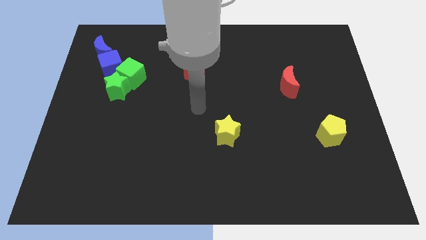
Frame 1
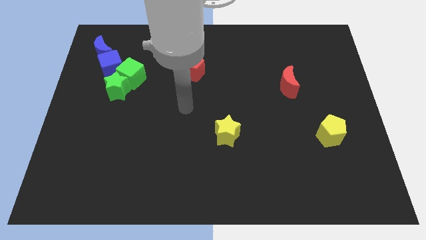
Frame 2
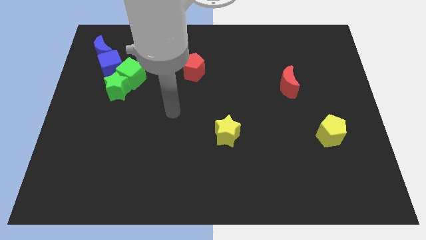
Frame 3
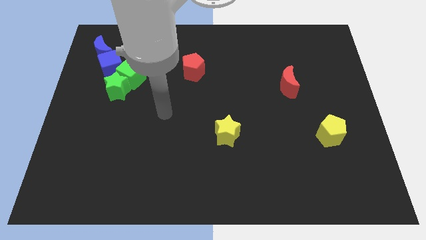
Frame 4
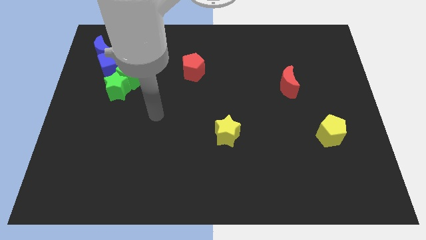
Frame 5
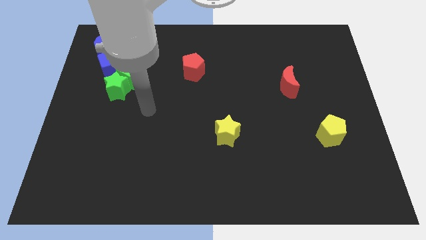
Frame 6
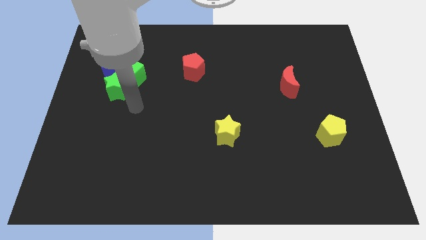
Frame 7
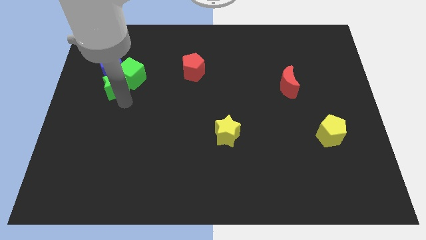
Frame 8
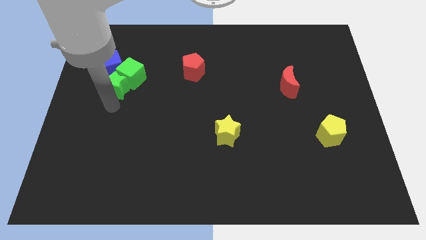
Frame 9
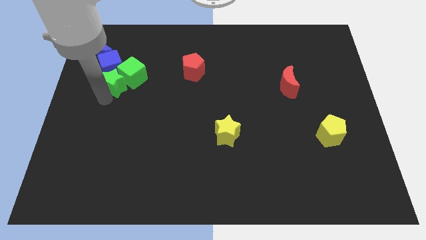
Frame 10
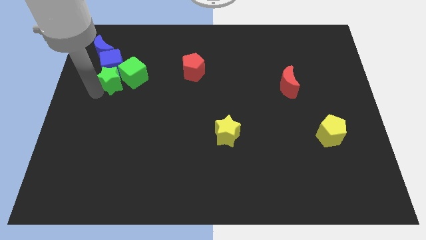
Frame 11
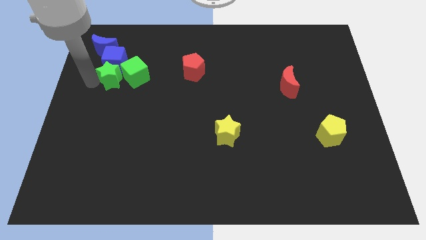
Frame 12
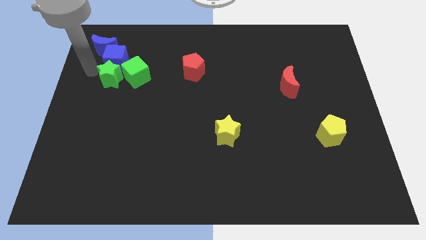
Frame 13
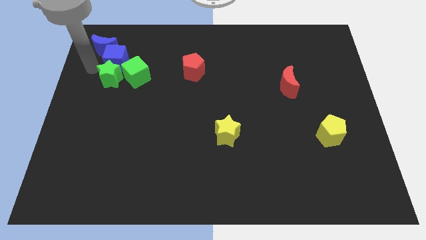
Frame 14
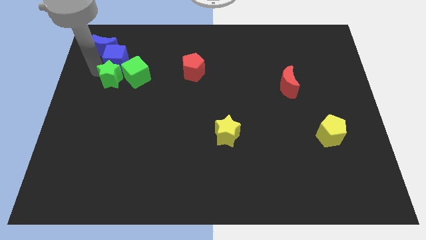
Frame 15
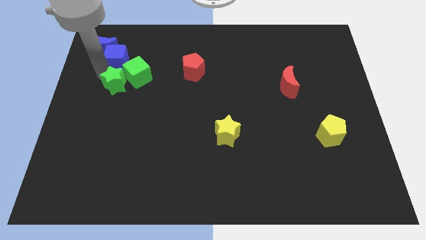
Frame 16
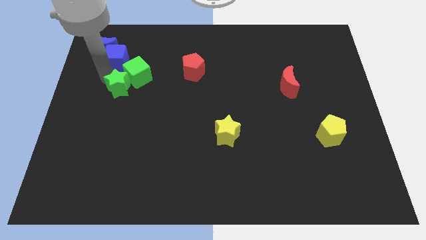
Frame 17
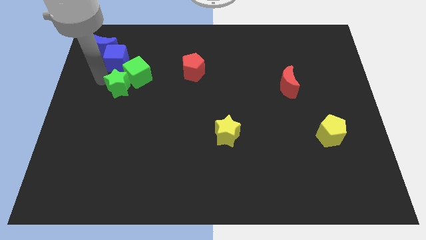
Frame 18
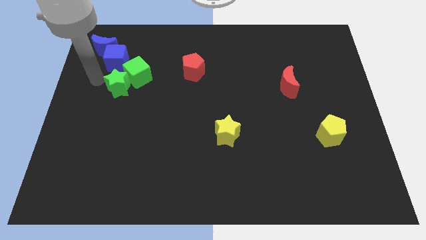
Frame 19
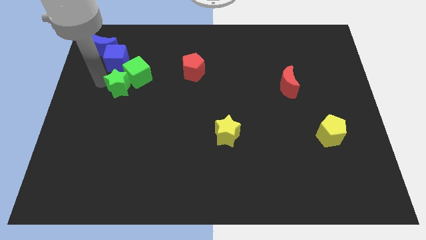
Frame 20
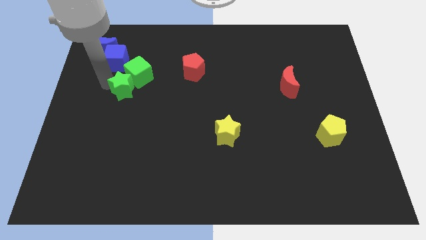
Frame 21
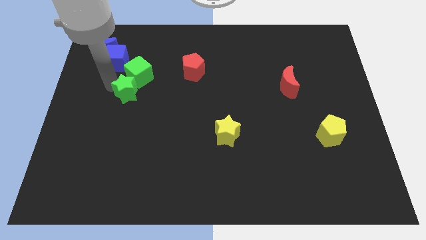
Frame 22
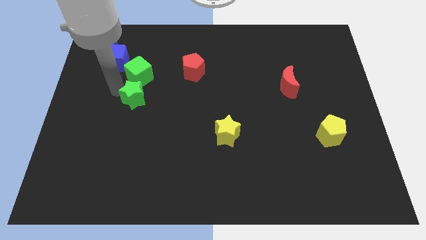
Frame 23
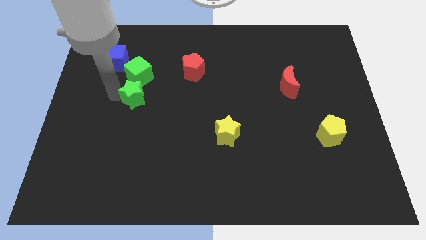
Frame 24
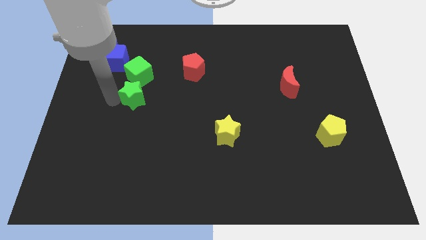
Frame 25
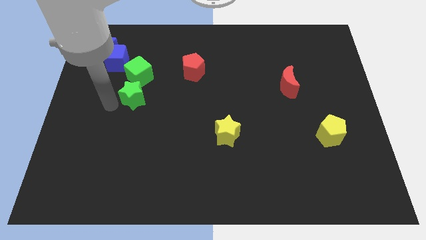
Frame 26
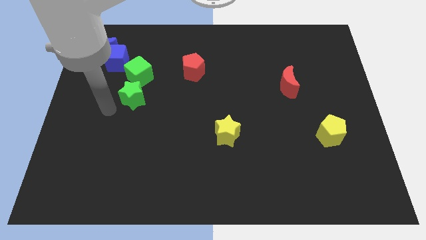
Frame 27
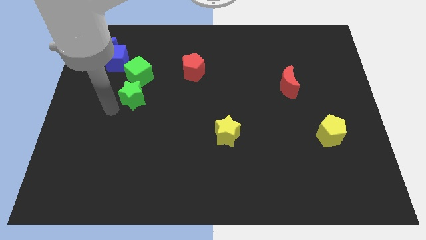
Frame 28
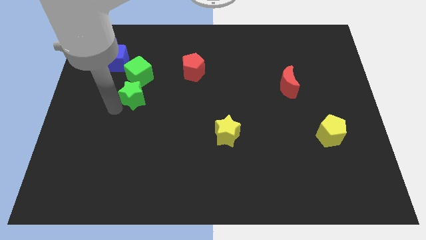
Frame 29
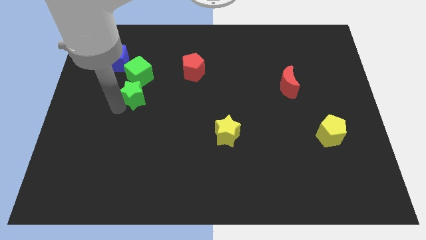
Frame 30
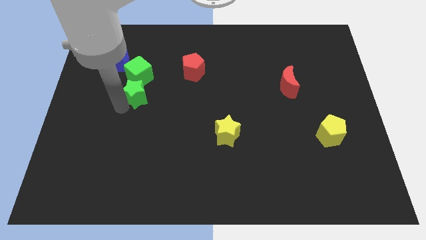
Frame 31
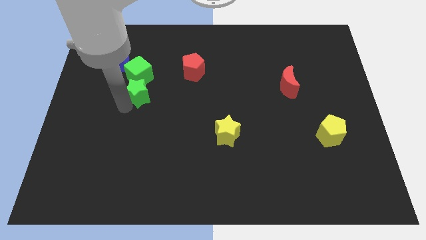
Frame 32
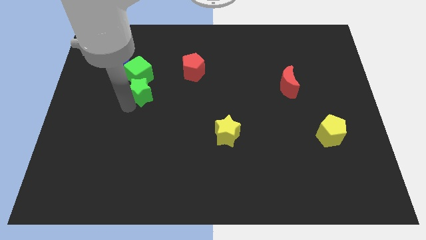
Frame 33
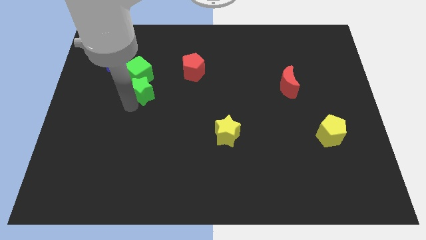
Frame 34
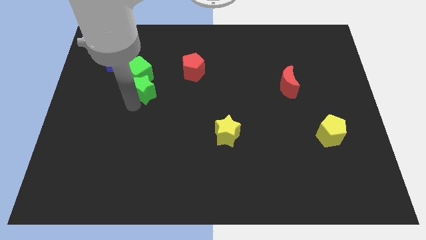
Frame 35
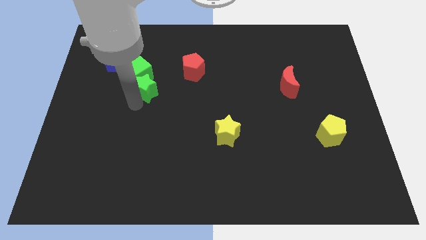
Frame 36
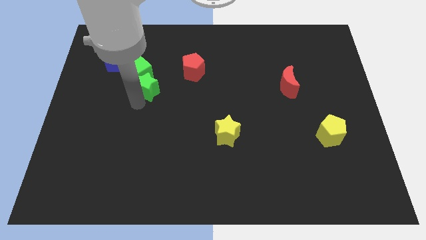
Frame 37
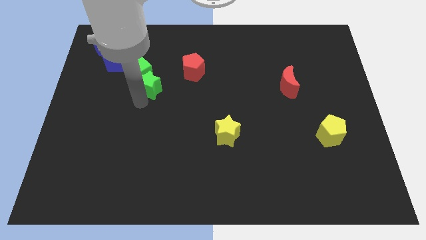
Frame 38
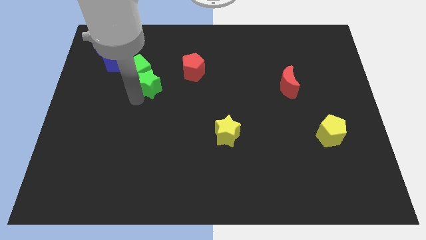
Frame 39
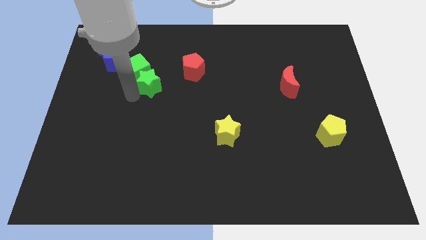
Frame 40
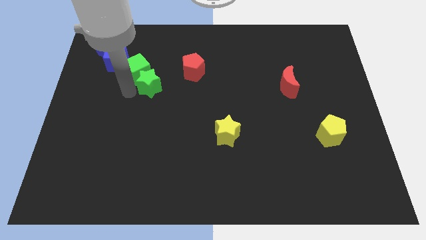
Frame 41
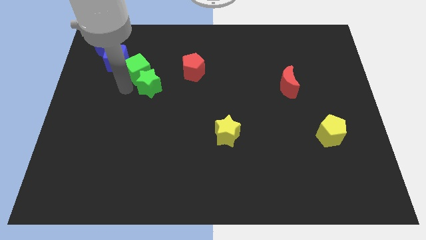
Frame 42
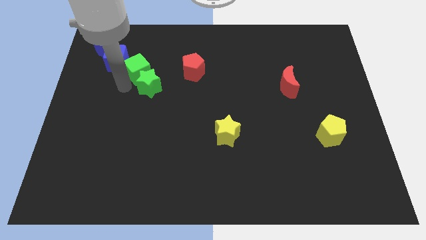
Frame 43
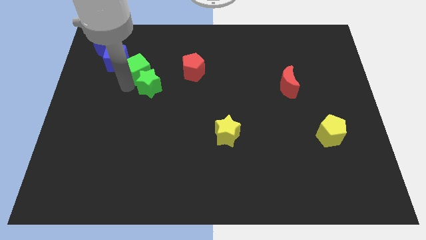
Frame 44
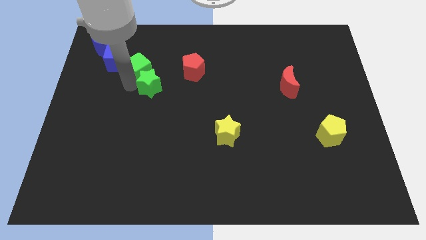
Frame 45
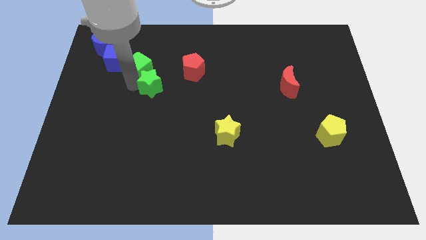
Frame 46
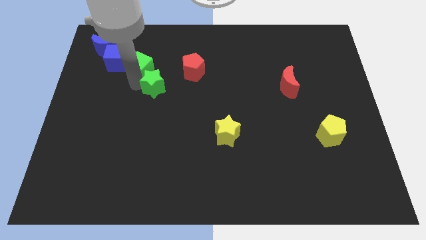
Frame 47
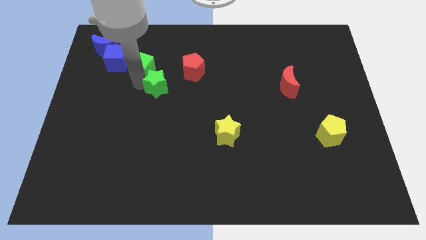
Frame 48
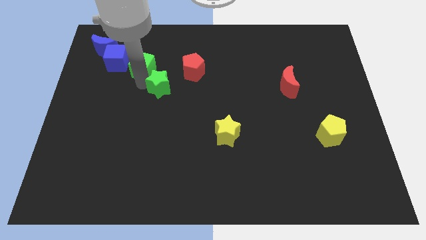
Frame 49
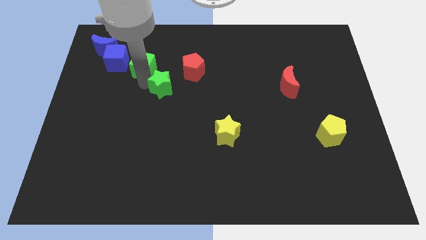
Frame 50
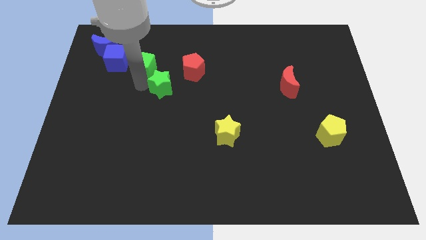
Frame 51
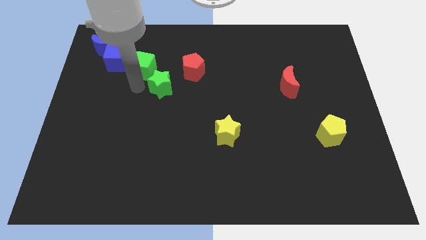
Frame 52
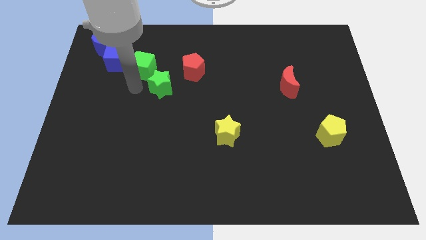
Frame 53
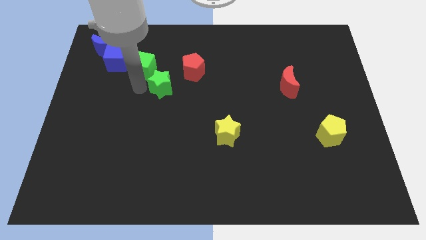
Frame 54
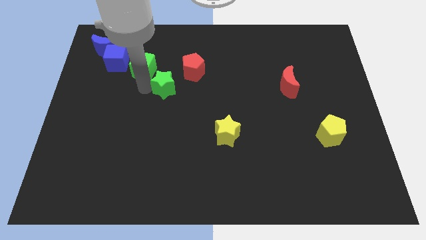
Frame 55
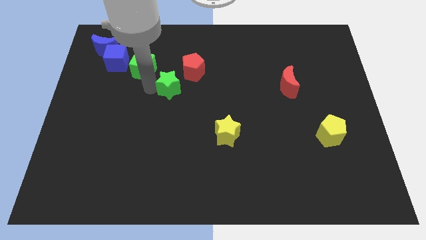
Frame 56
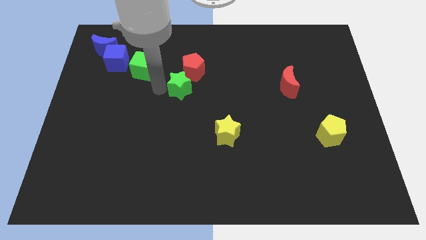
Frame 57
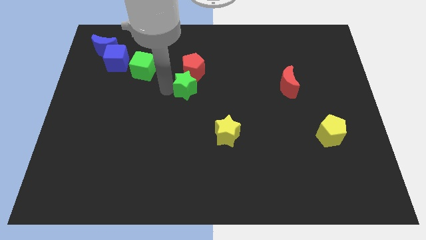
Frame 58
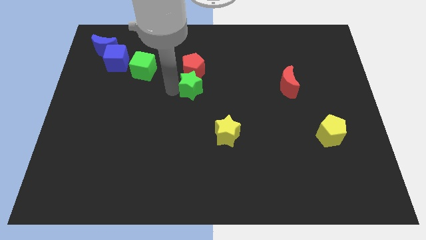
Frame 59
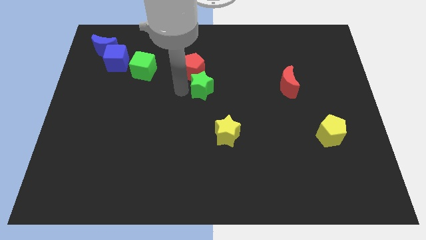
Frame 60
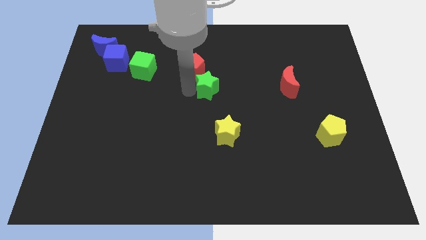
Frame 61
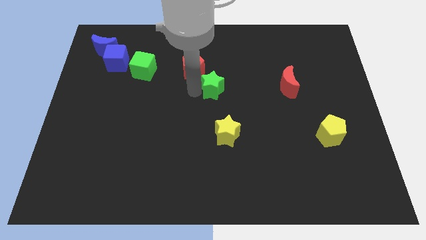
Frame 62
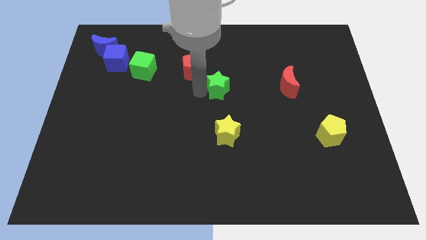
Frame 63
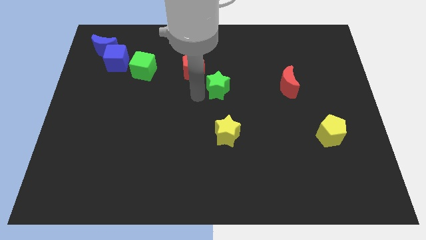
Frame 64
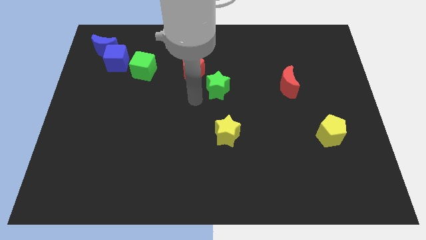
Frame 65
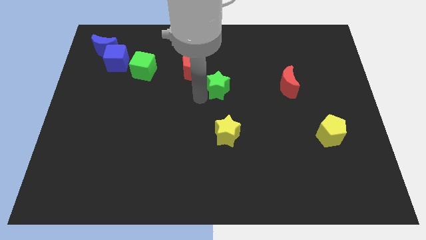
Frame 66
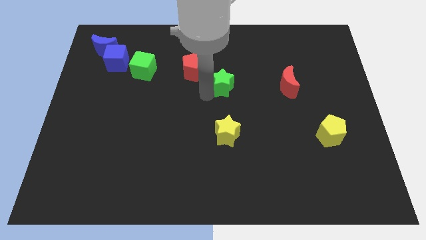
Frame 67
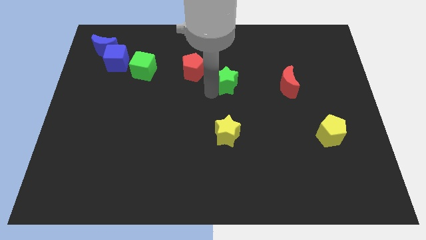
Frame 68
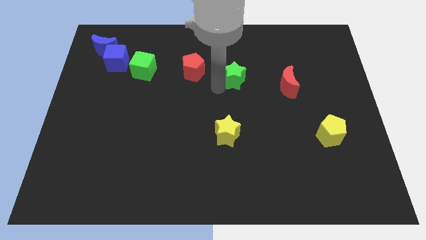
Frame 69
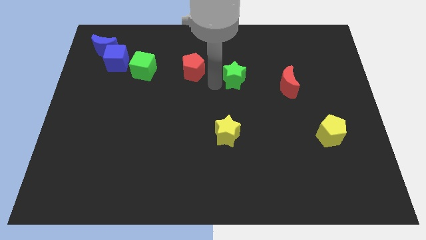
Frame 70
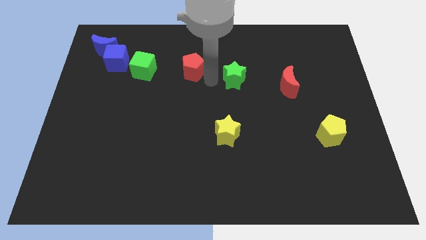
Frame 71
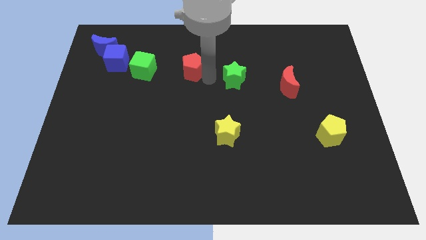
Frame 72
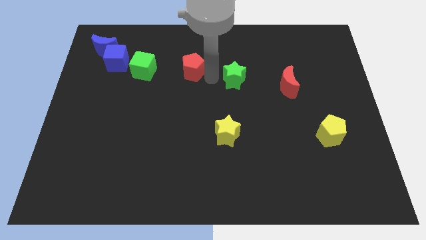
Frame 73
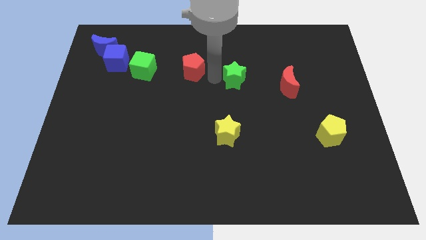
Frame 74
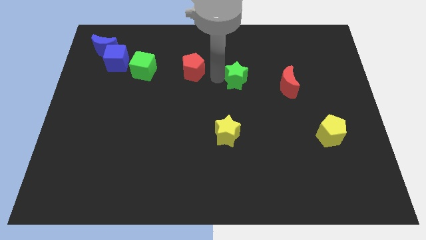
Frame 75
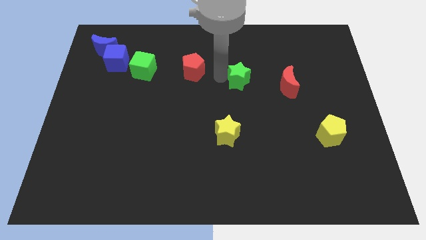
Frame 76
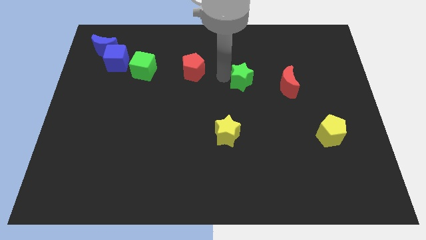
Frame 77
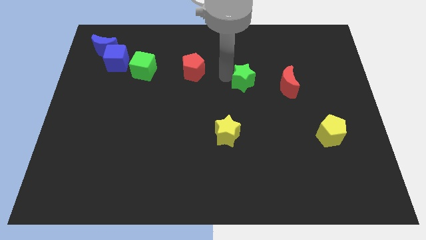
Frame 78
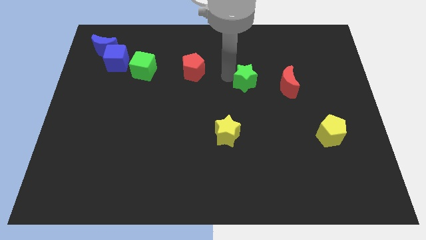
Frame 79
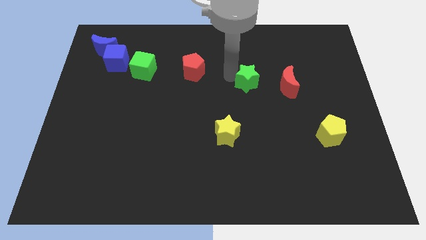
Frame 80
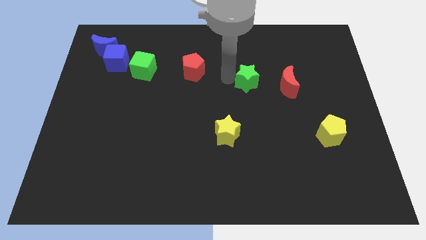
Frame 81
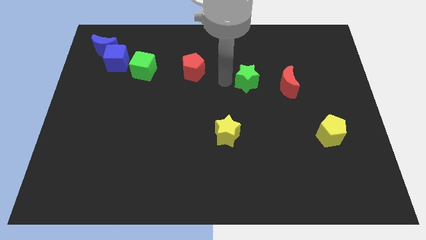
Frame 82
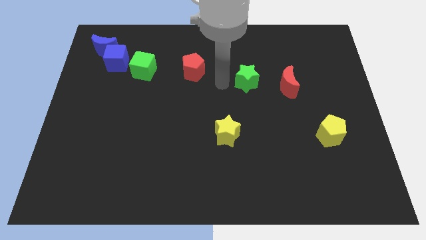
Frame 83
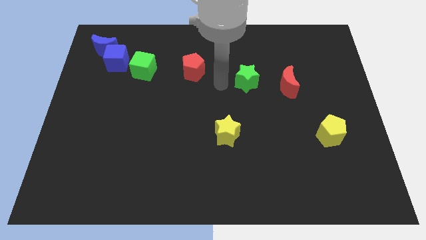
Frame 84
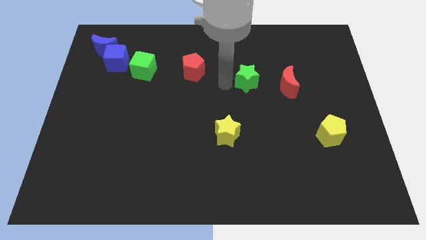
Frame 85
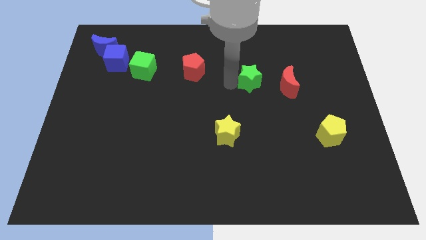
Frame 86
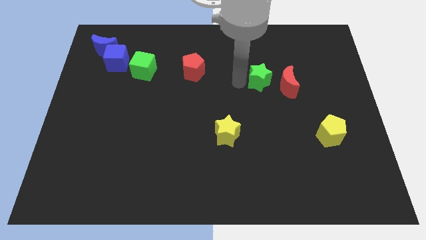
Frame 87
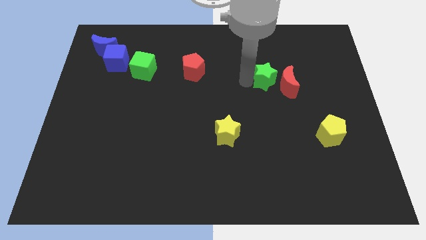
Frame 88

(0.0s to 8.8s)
move the green star next to the red moon
